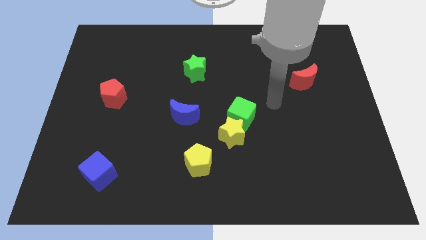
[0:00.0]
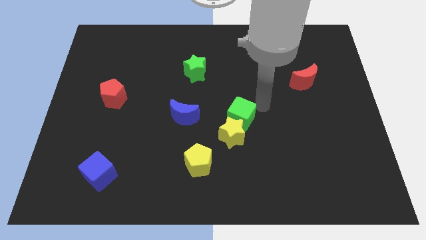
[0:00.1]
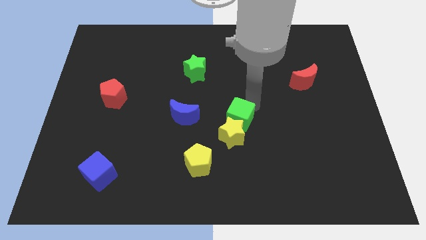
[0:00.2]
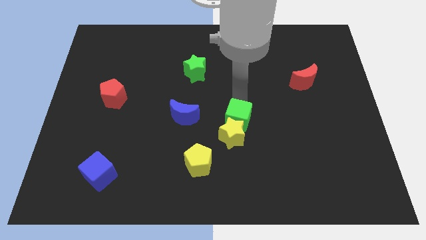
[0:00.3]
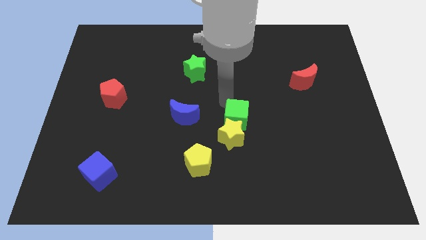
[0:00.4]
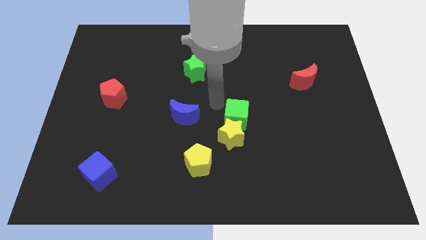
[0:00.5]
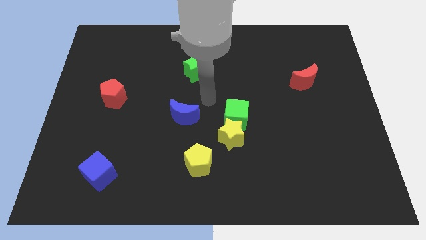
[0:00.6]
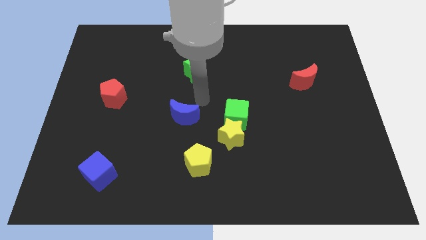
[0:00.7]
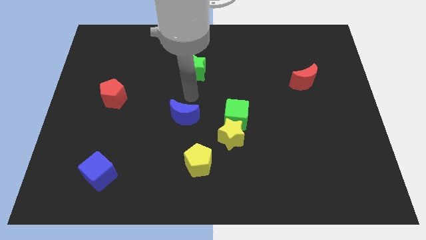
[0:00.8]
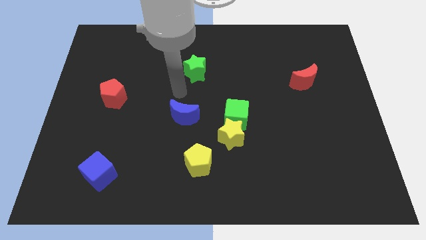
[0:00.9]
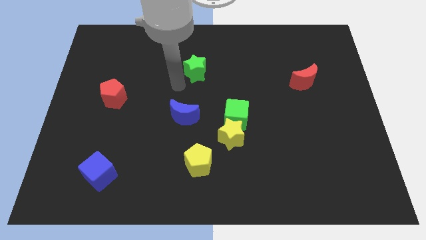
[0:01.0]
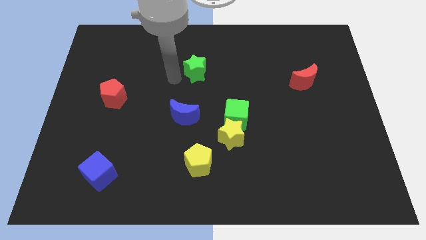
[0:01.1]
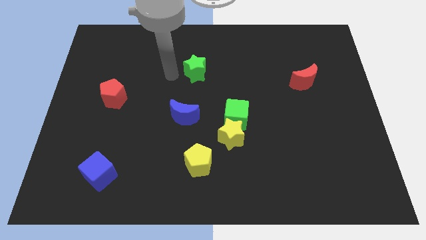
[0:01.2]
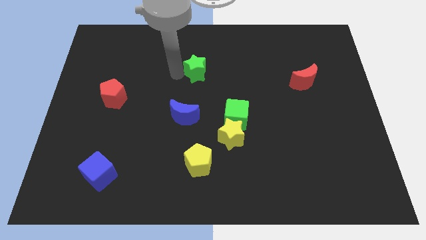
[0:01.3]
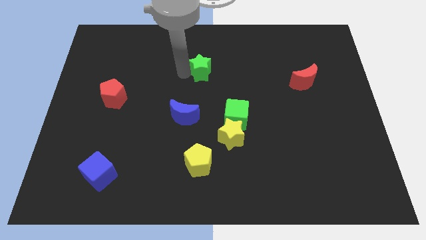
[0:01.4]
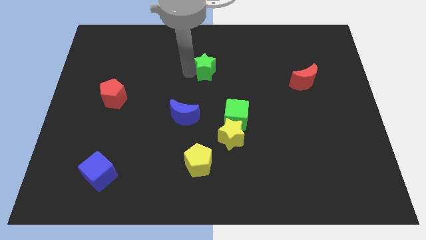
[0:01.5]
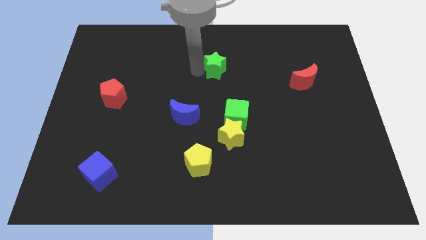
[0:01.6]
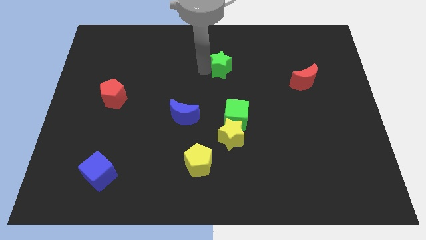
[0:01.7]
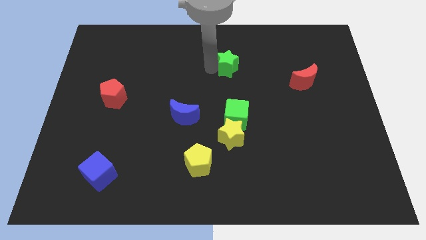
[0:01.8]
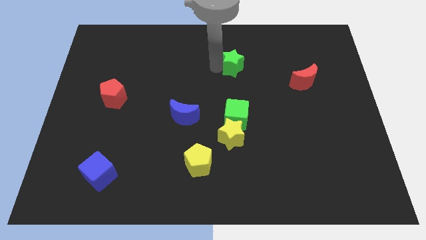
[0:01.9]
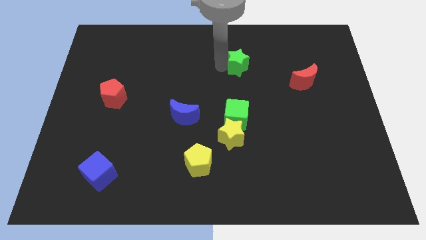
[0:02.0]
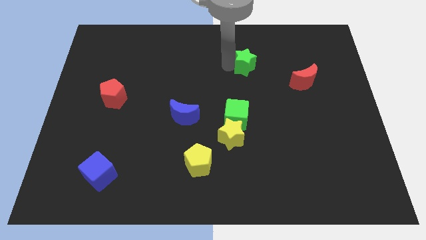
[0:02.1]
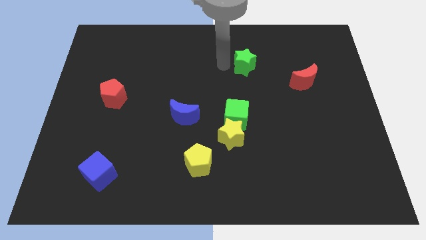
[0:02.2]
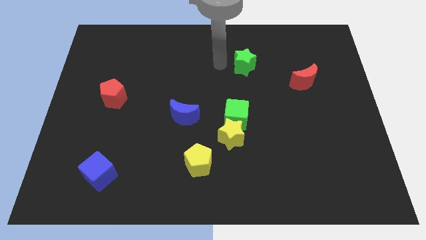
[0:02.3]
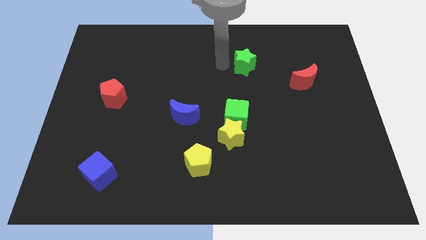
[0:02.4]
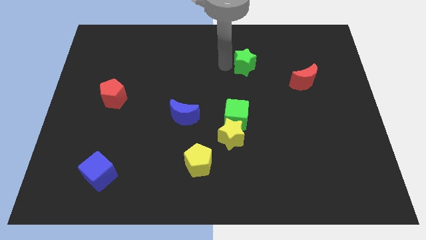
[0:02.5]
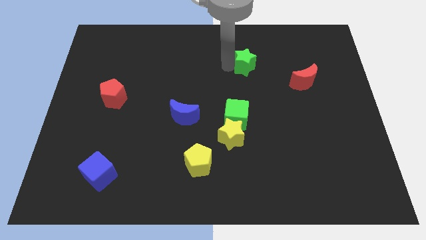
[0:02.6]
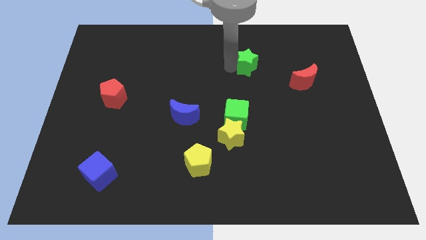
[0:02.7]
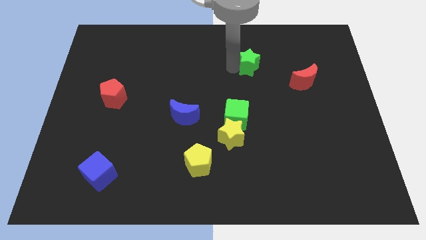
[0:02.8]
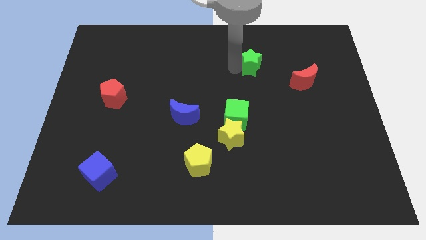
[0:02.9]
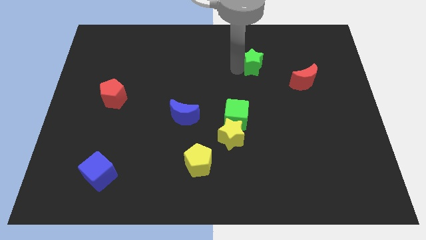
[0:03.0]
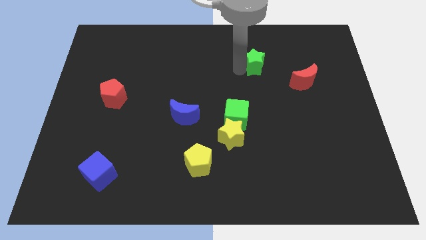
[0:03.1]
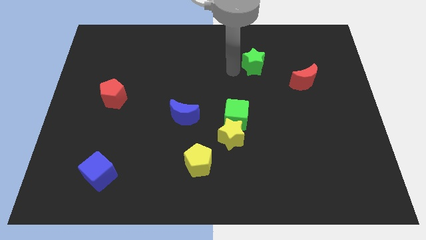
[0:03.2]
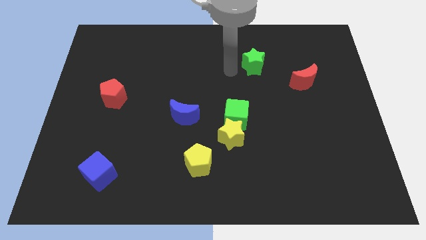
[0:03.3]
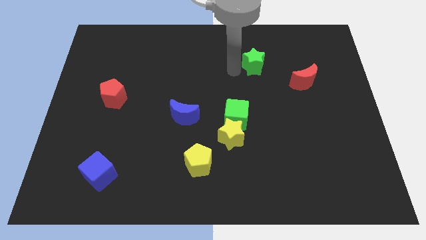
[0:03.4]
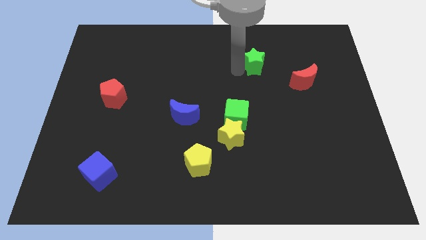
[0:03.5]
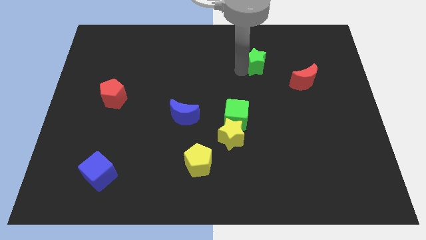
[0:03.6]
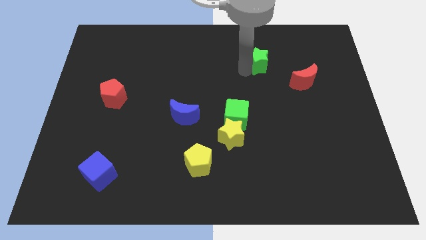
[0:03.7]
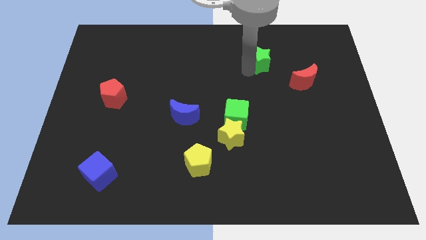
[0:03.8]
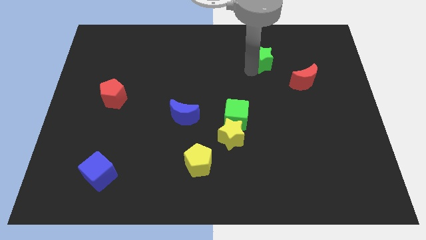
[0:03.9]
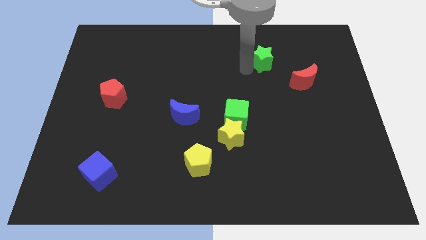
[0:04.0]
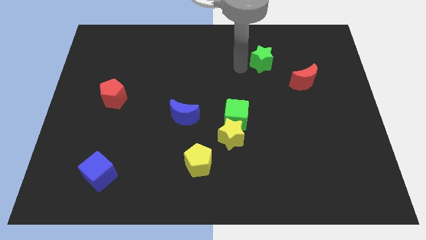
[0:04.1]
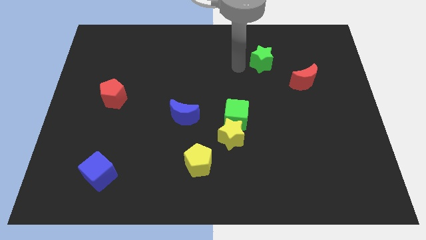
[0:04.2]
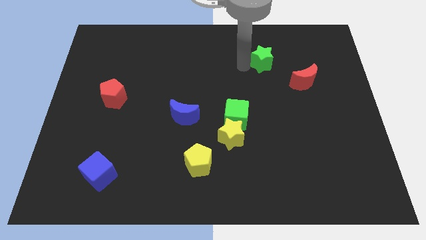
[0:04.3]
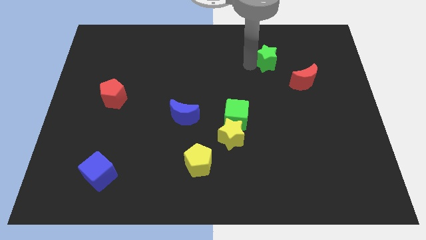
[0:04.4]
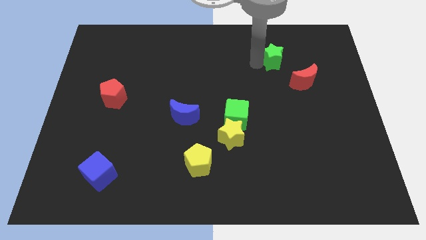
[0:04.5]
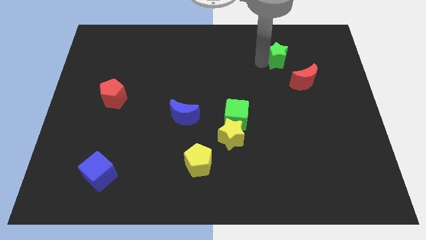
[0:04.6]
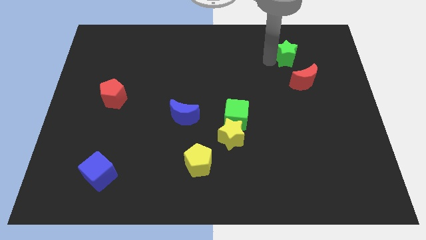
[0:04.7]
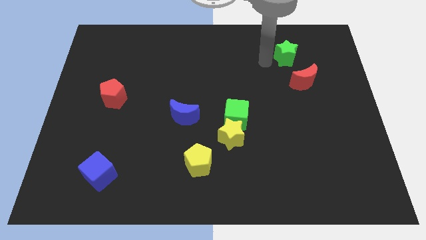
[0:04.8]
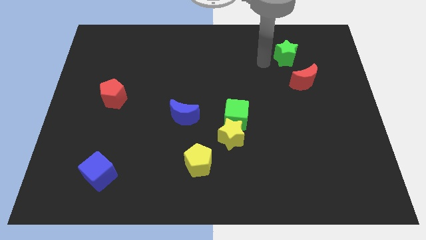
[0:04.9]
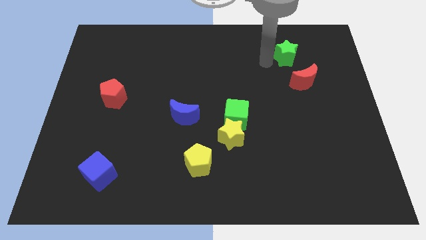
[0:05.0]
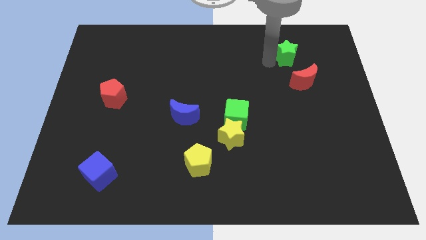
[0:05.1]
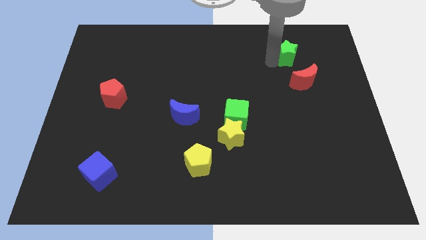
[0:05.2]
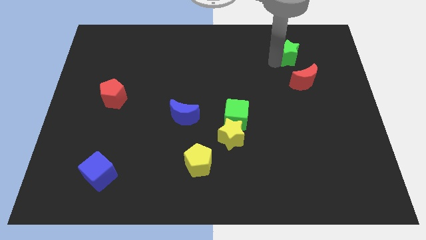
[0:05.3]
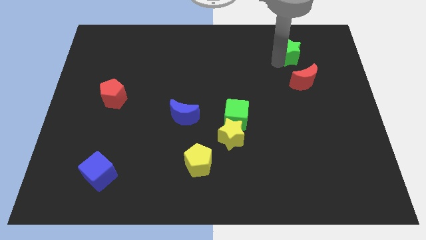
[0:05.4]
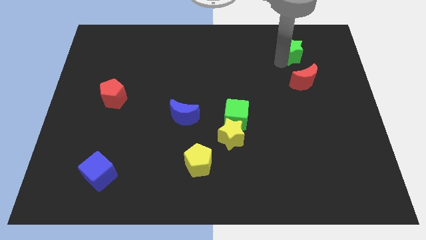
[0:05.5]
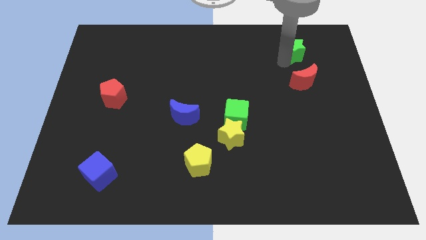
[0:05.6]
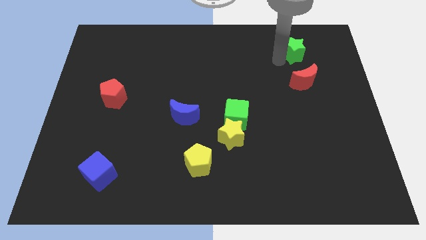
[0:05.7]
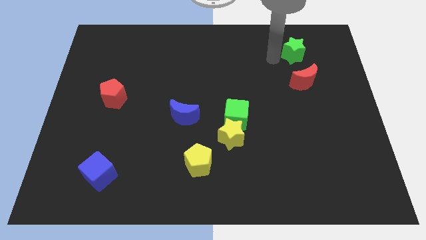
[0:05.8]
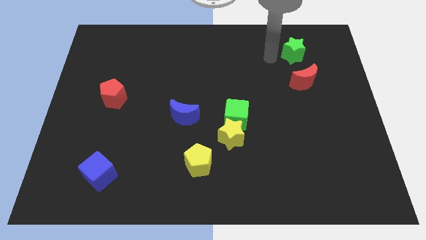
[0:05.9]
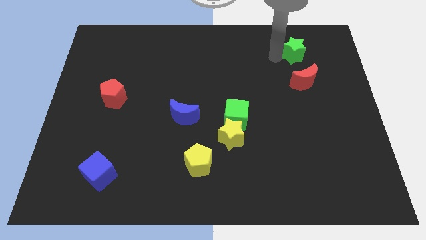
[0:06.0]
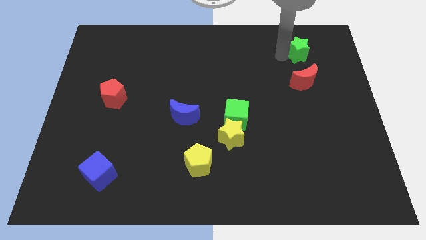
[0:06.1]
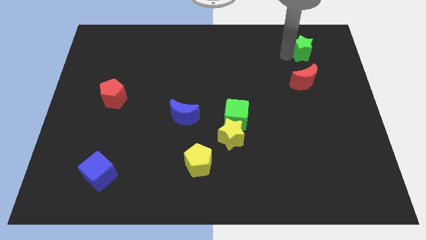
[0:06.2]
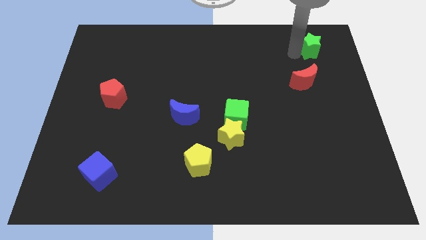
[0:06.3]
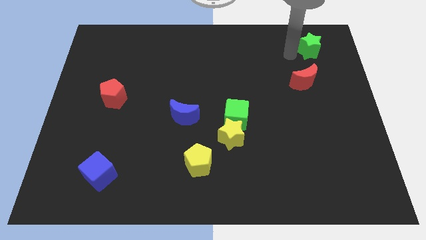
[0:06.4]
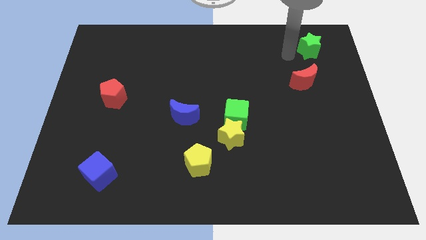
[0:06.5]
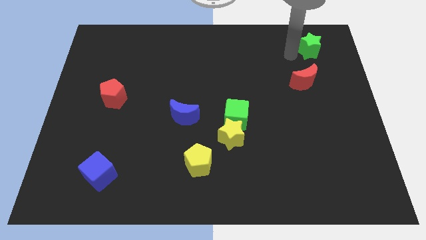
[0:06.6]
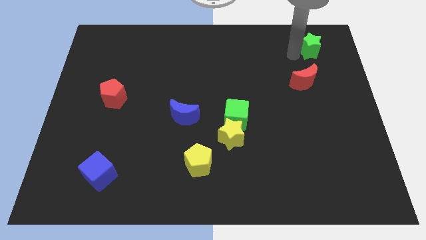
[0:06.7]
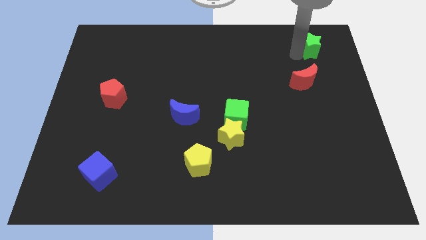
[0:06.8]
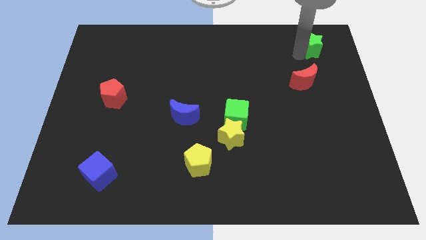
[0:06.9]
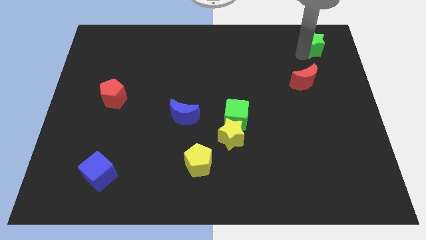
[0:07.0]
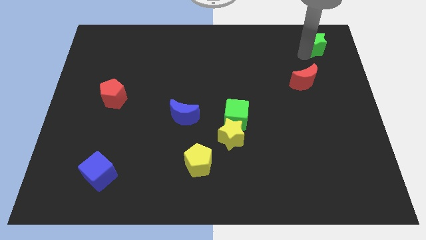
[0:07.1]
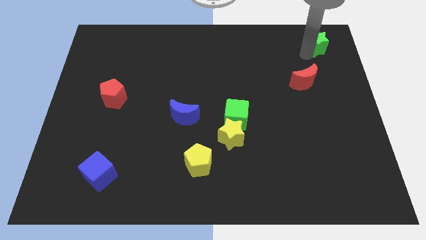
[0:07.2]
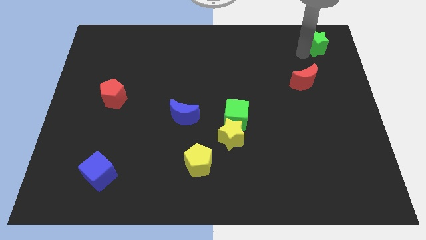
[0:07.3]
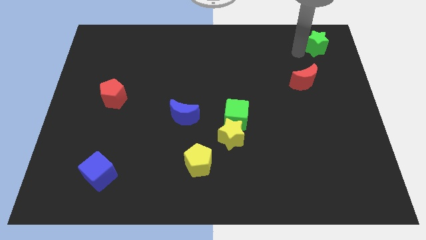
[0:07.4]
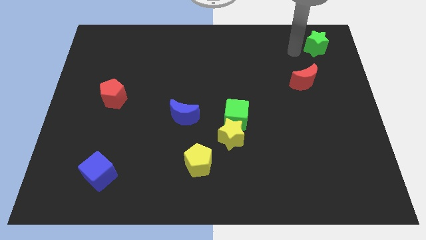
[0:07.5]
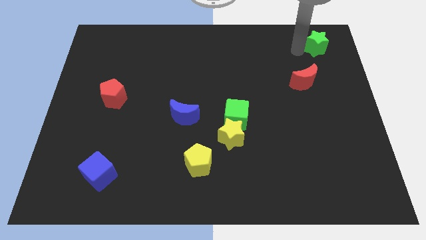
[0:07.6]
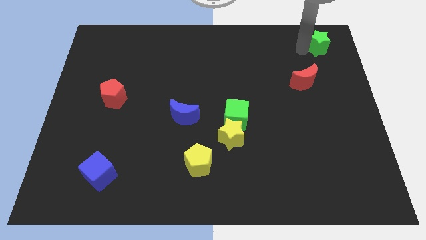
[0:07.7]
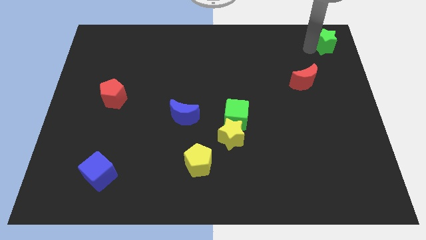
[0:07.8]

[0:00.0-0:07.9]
move the green star to the upper right corner
